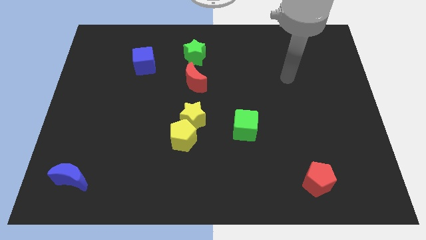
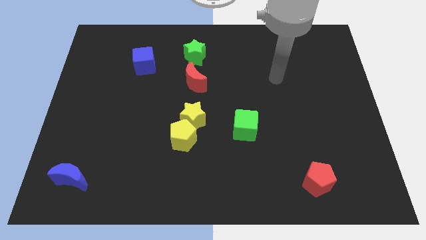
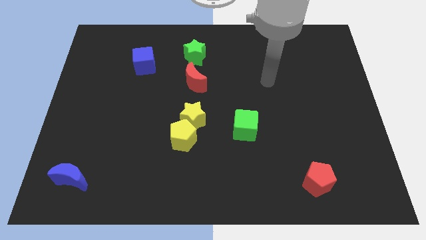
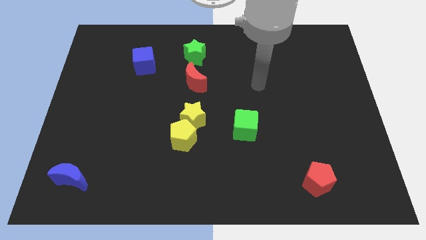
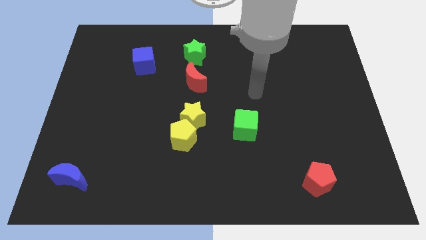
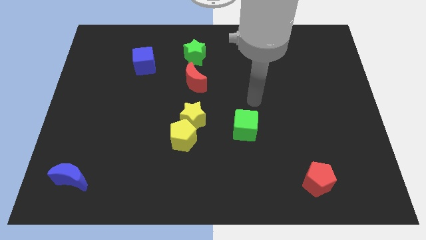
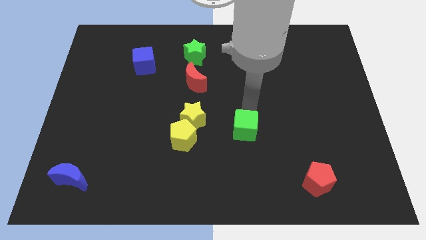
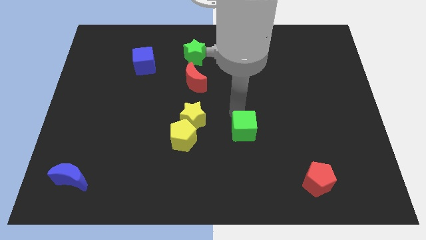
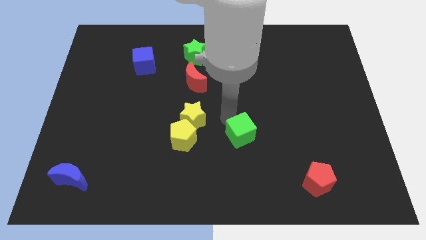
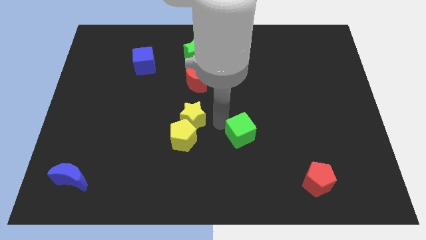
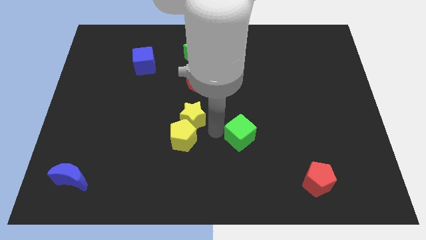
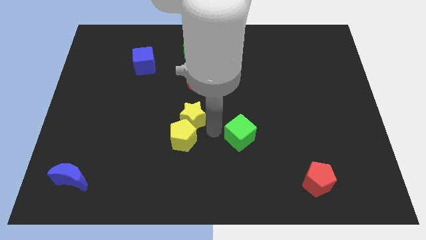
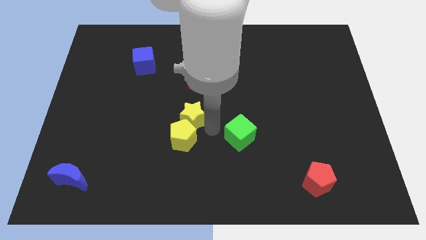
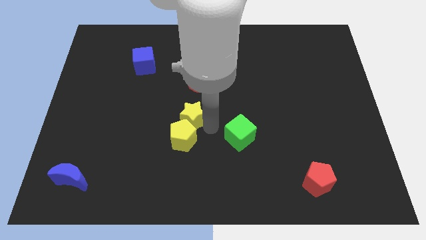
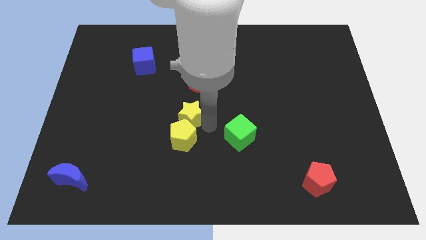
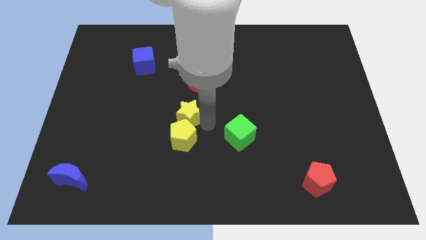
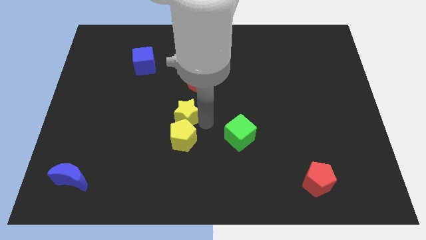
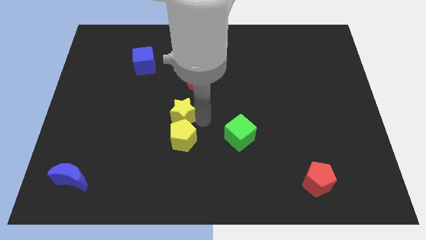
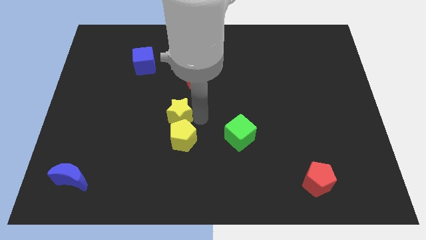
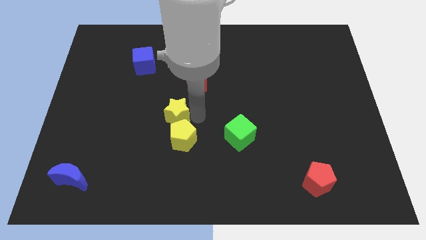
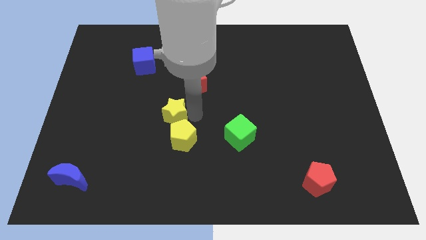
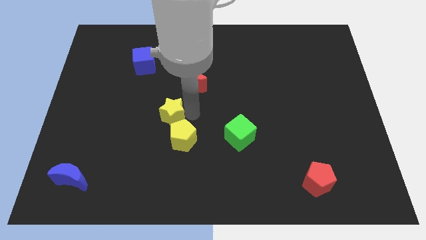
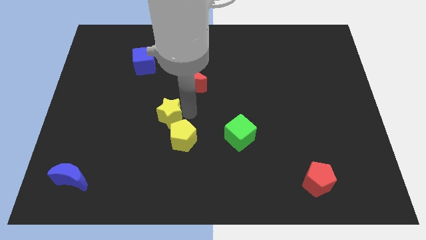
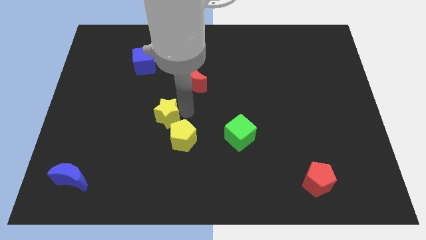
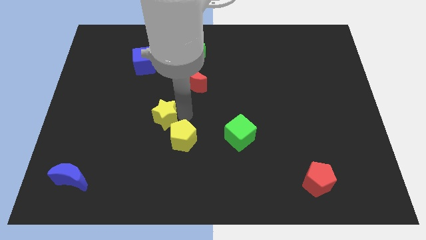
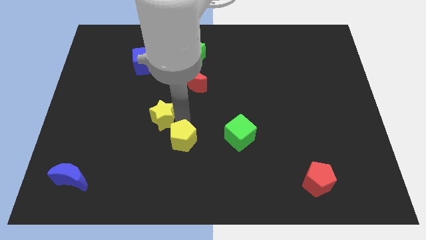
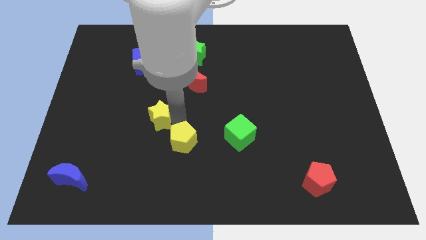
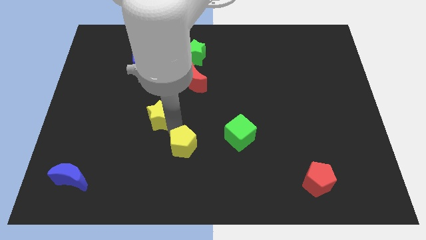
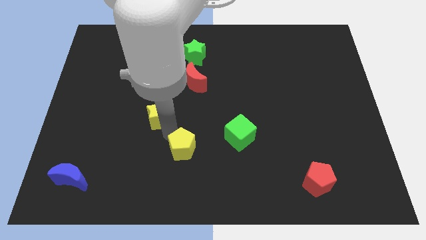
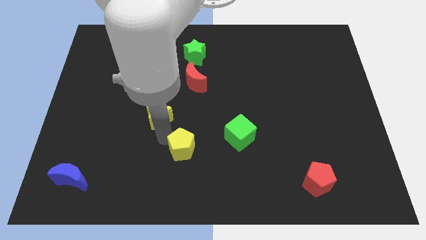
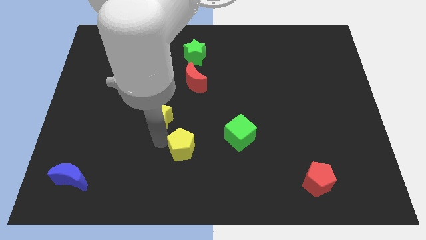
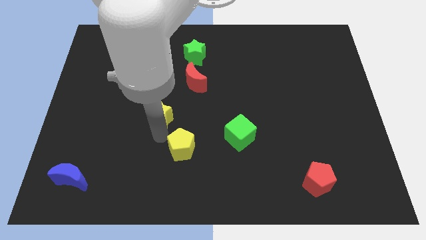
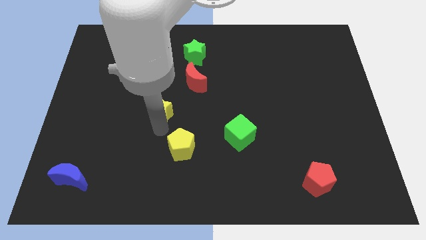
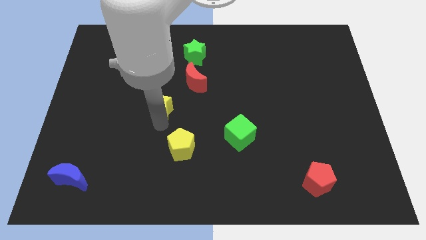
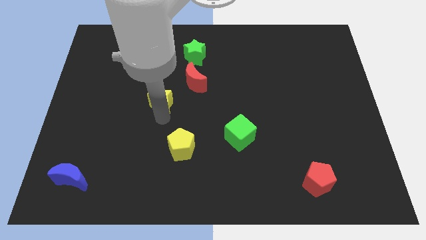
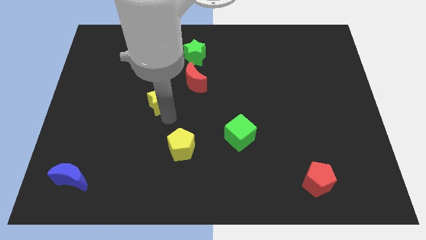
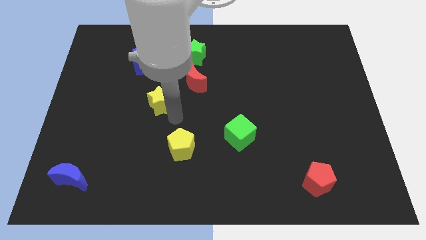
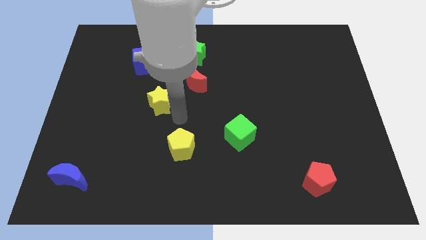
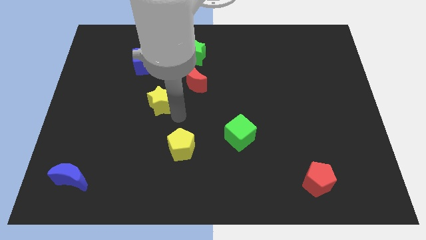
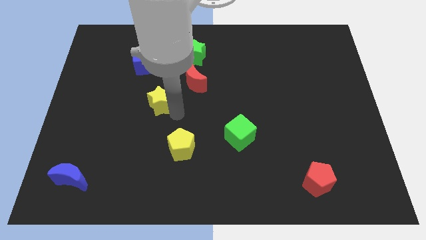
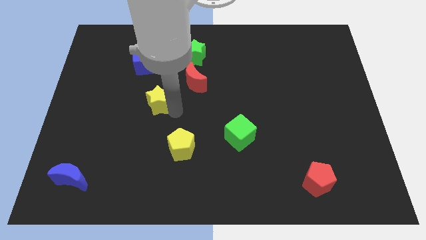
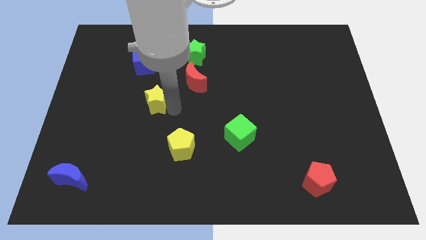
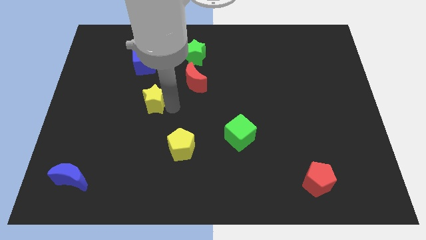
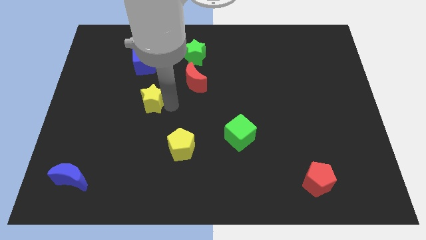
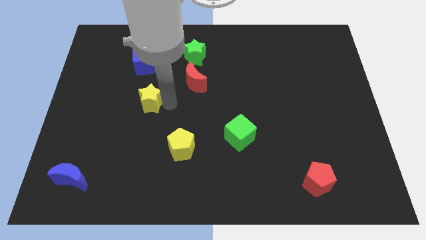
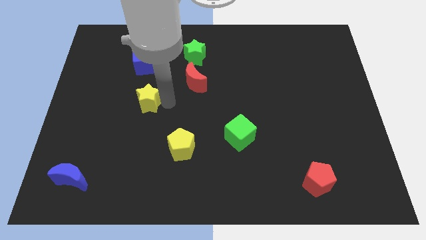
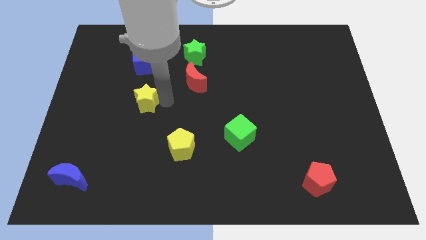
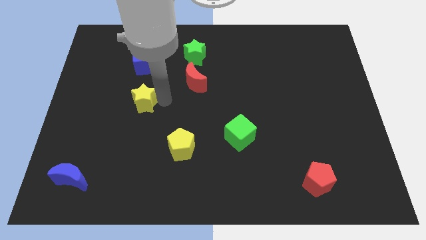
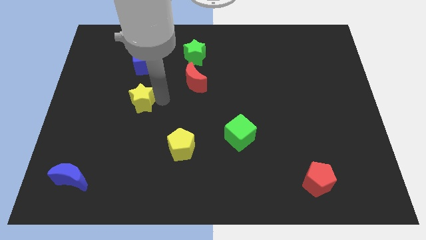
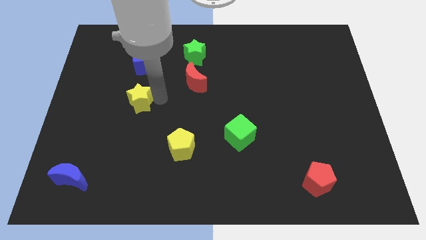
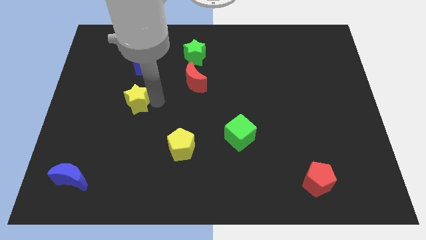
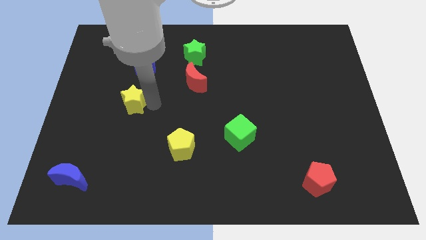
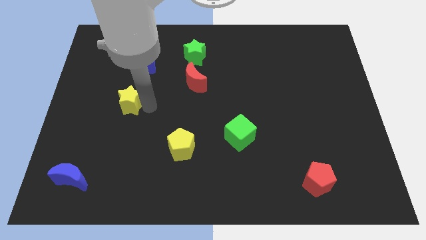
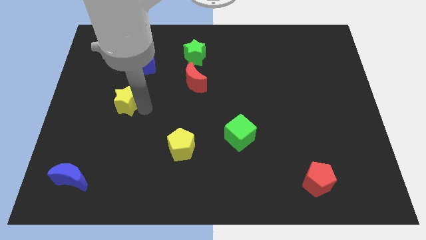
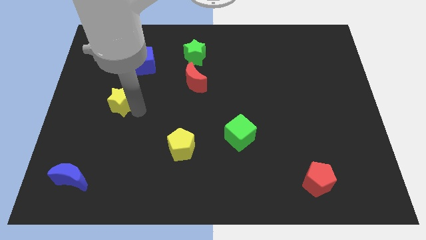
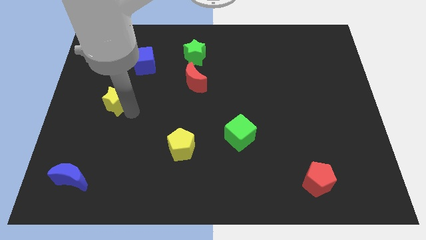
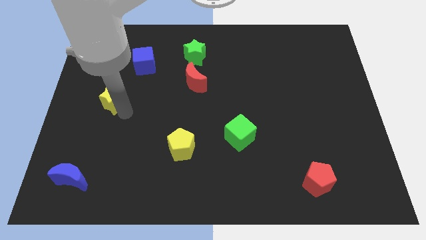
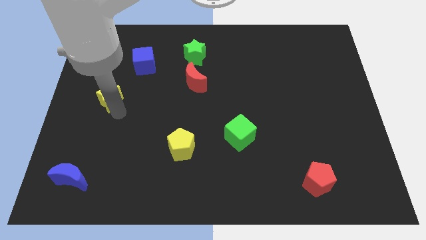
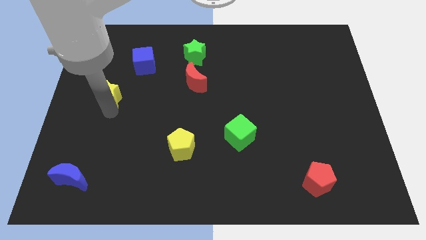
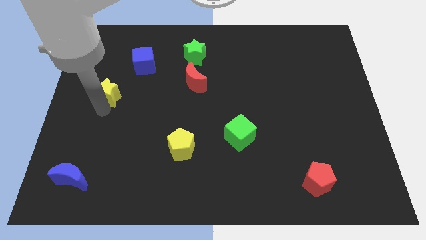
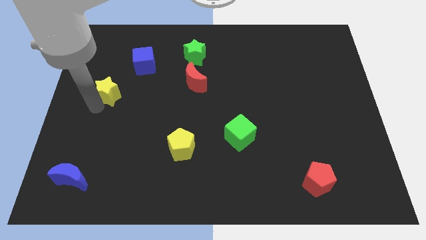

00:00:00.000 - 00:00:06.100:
push the yellow star to the bottom left of the blue cube

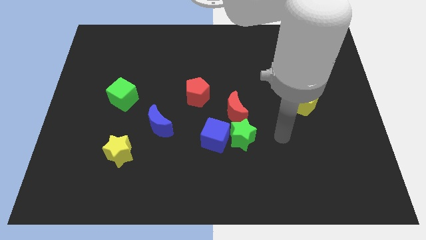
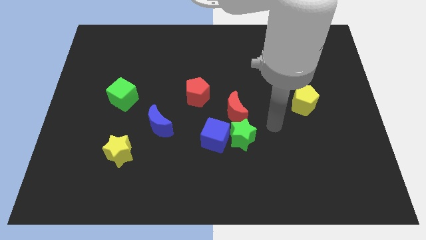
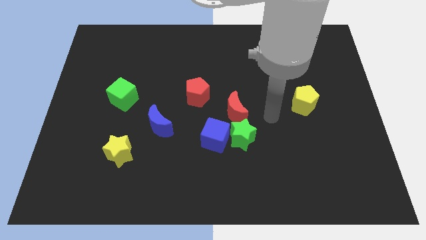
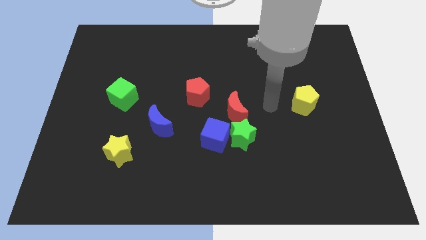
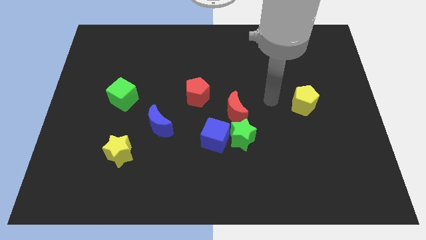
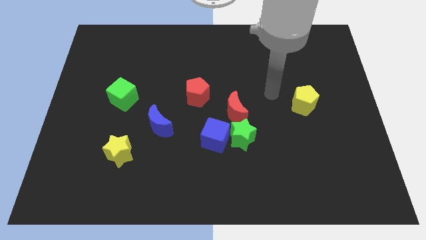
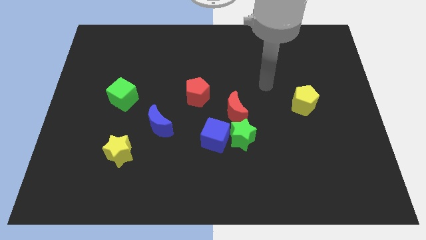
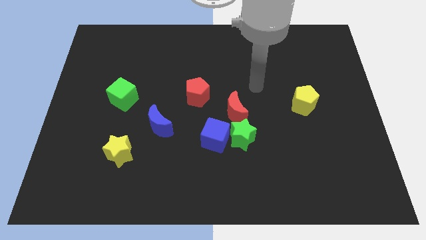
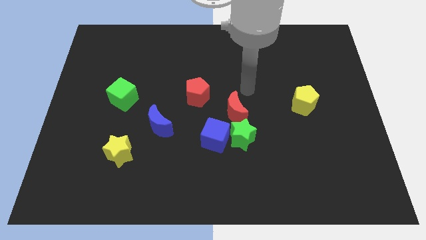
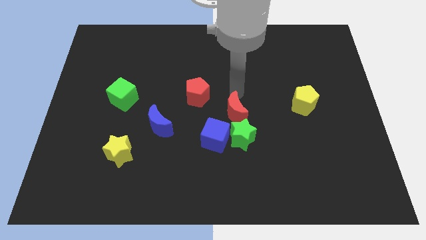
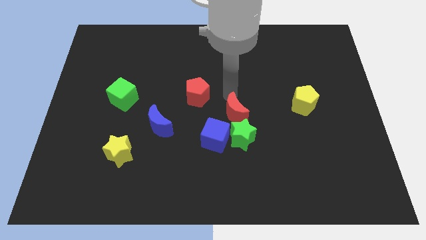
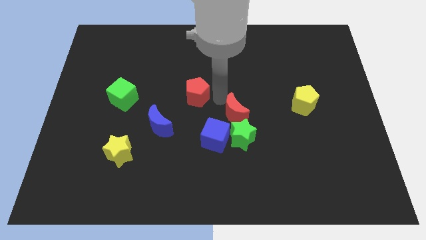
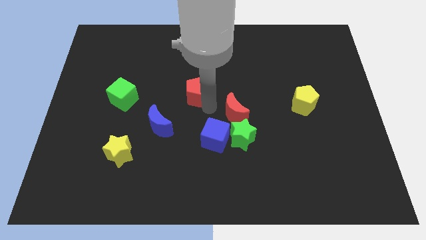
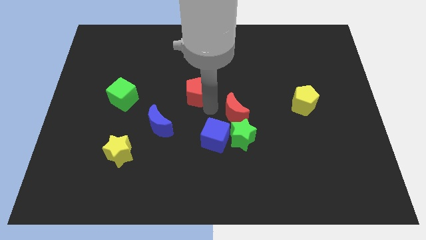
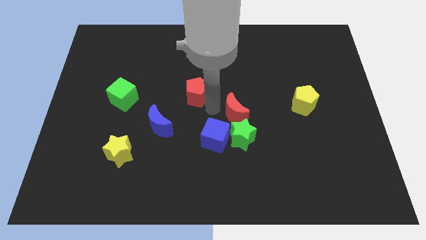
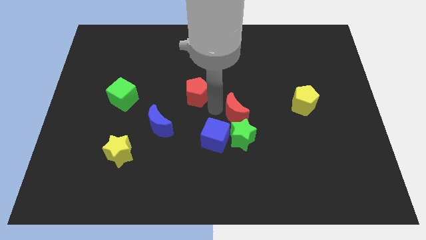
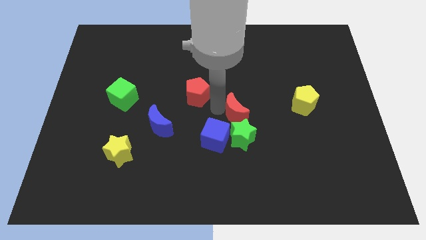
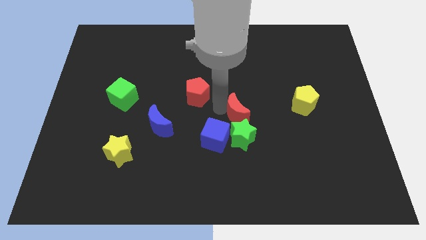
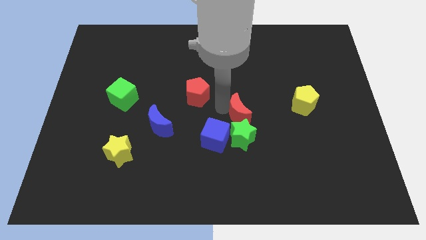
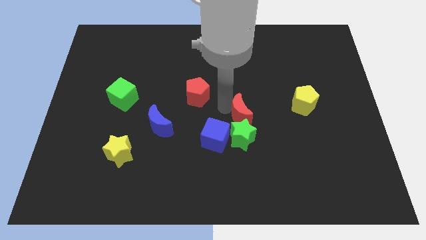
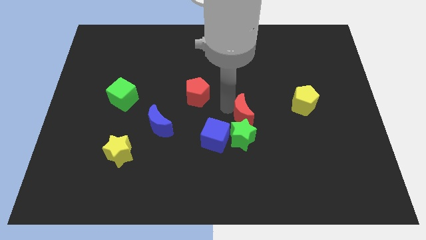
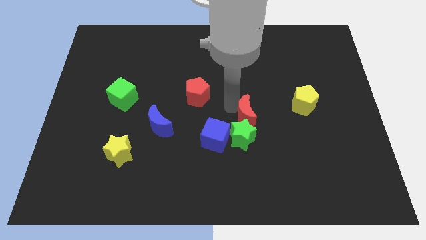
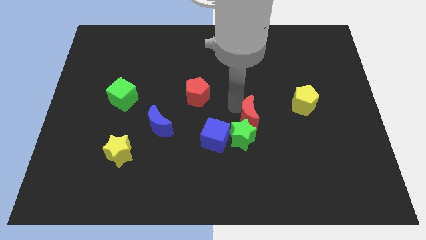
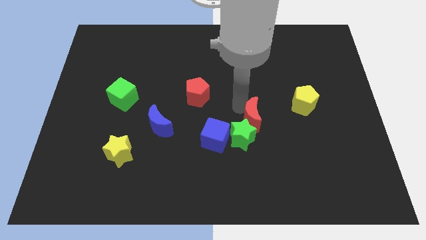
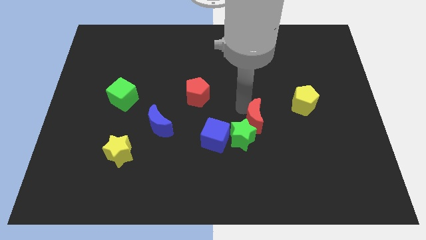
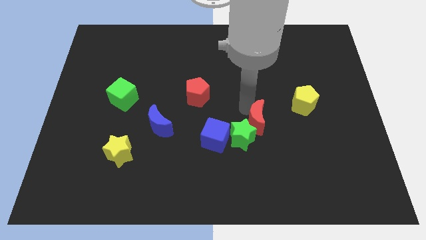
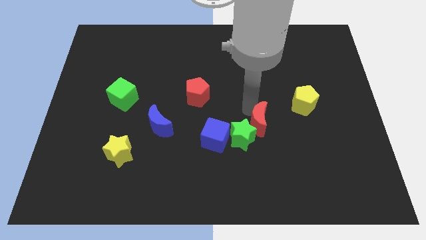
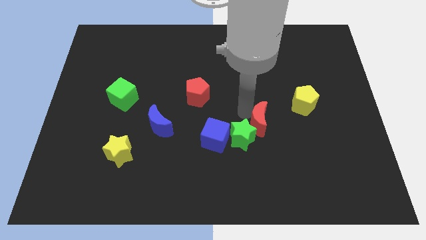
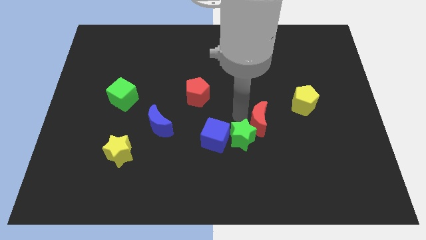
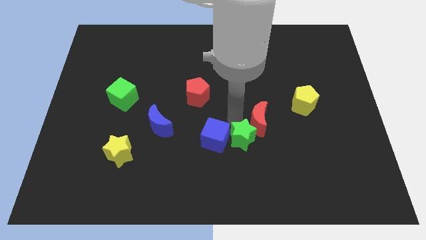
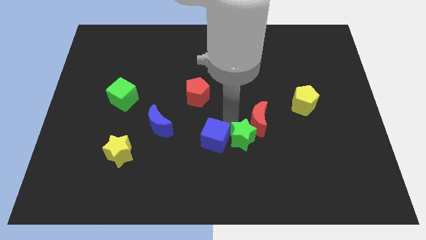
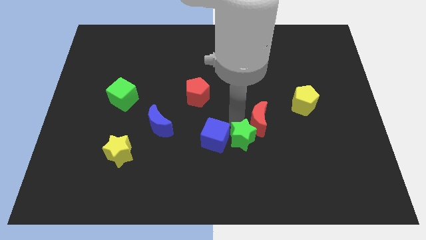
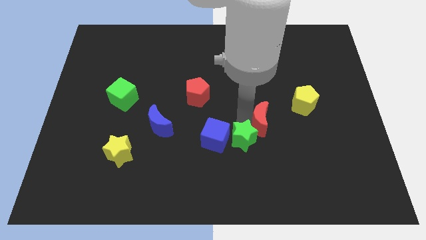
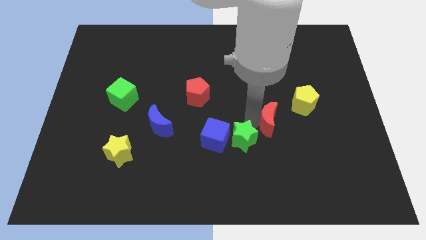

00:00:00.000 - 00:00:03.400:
push the red moon diagonally down and to the left of the yellow pentagon
